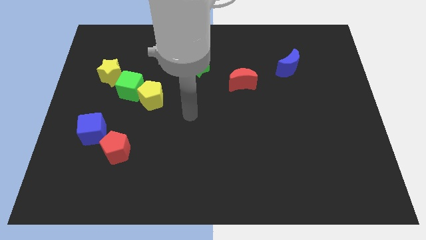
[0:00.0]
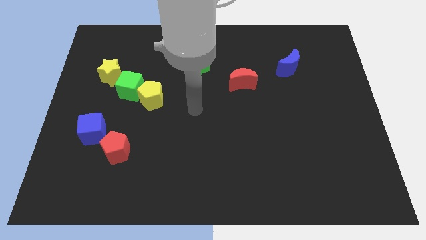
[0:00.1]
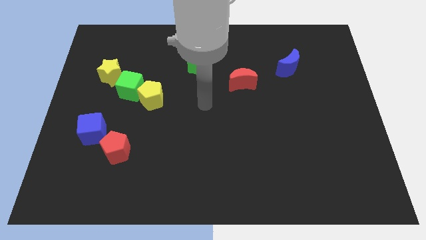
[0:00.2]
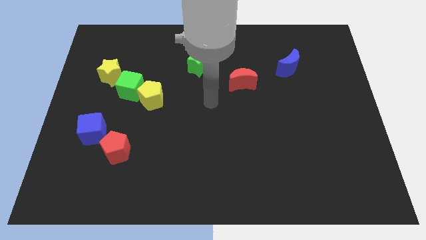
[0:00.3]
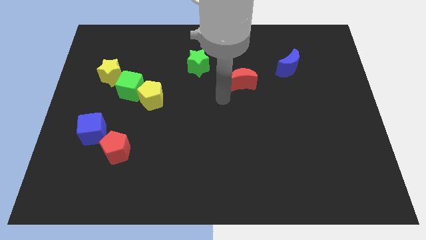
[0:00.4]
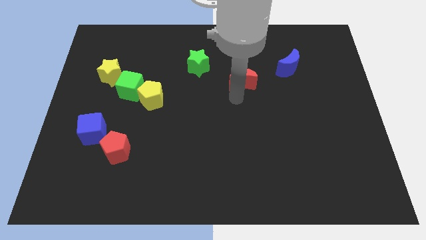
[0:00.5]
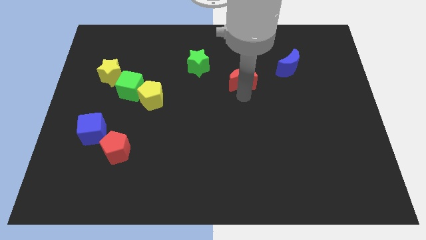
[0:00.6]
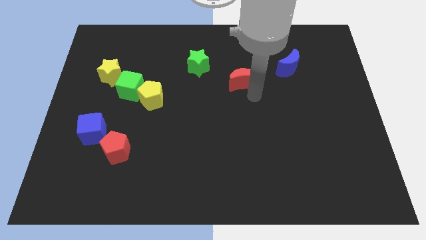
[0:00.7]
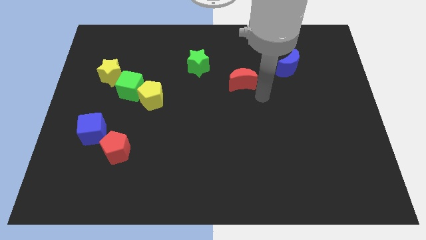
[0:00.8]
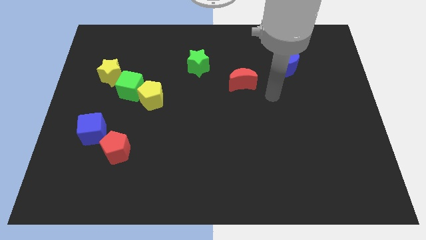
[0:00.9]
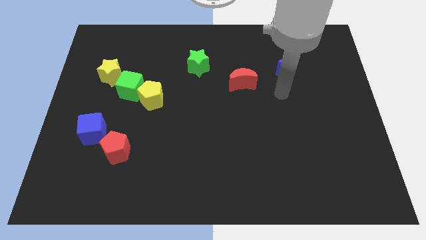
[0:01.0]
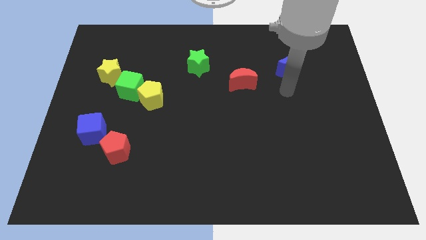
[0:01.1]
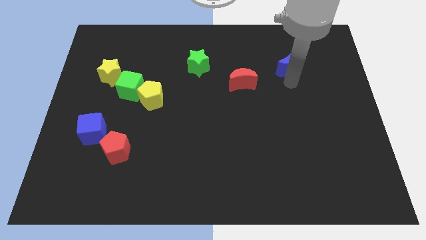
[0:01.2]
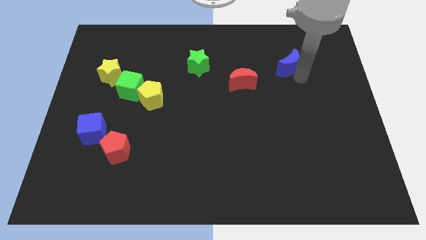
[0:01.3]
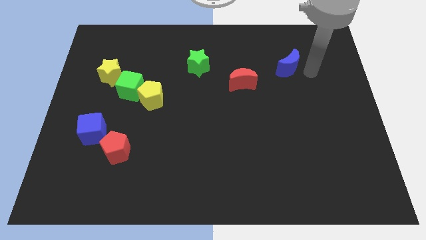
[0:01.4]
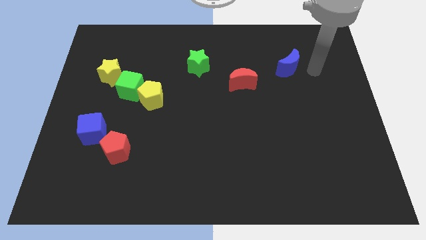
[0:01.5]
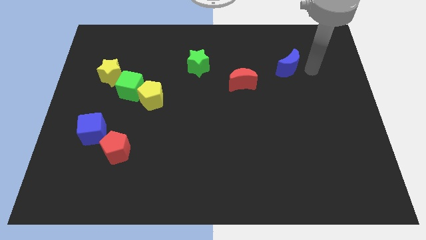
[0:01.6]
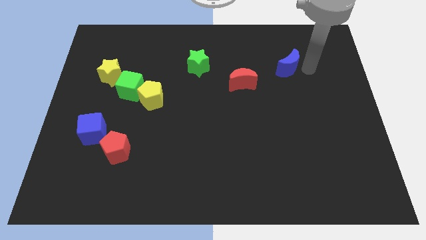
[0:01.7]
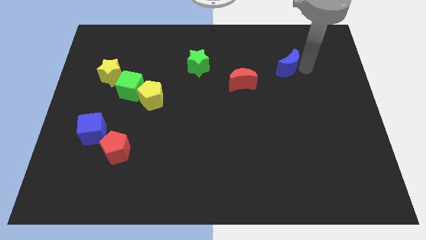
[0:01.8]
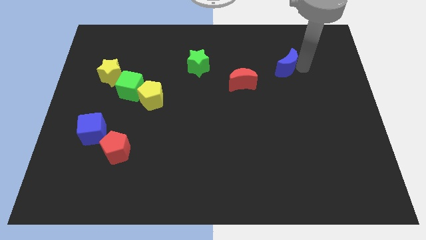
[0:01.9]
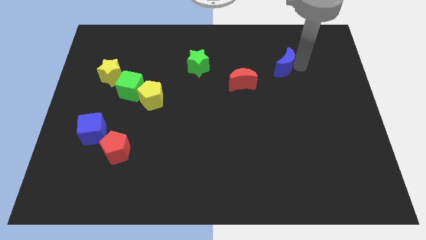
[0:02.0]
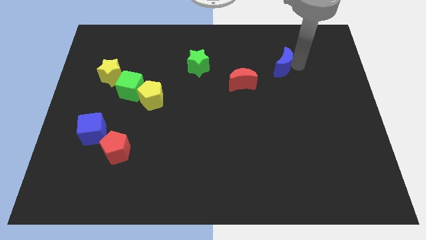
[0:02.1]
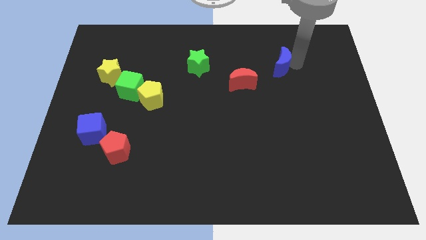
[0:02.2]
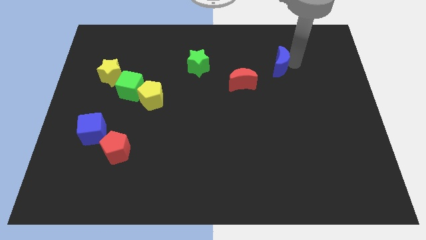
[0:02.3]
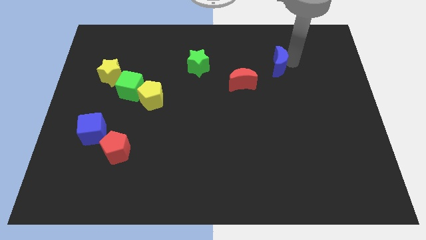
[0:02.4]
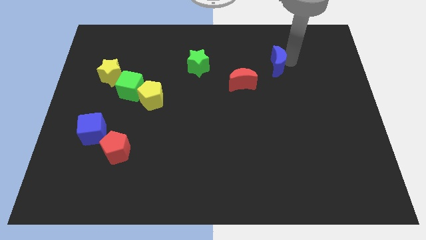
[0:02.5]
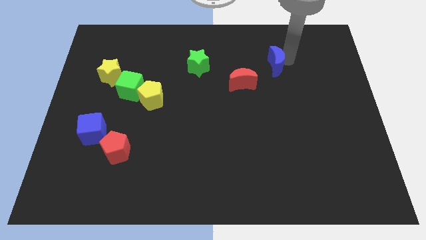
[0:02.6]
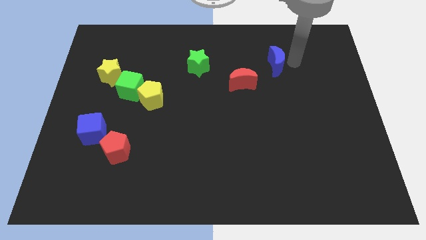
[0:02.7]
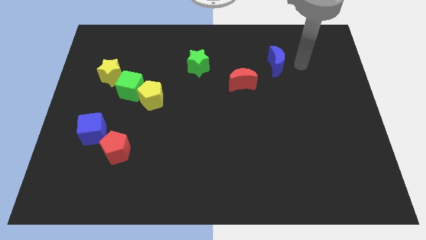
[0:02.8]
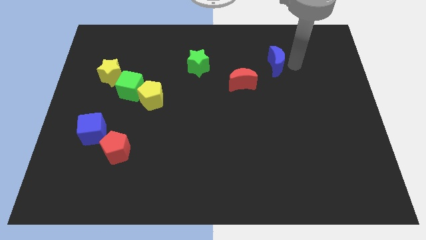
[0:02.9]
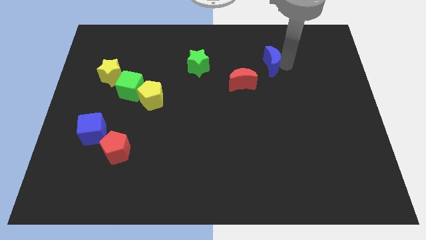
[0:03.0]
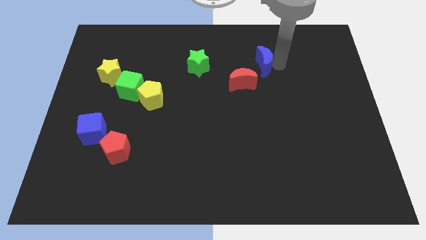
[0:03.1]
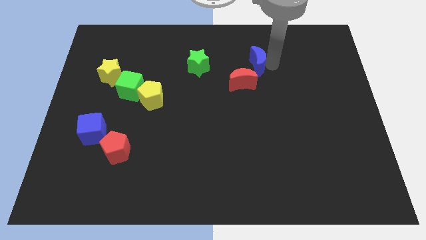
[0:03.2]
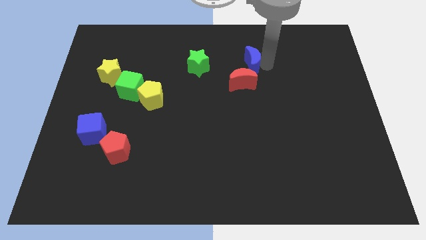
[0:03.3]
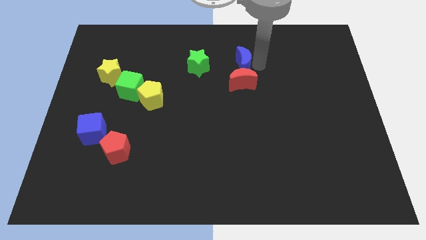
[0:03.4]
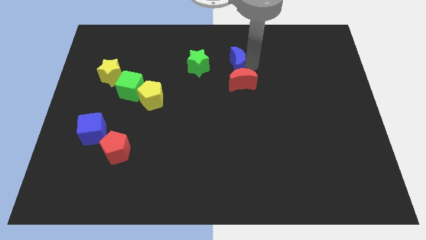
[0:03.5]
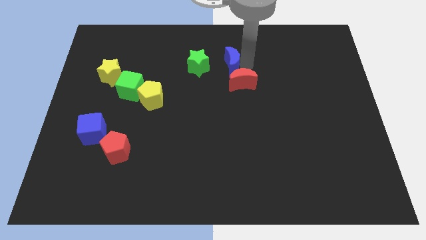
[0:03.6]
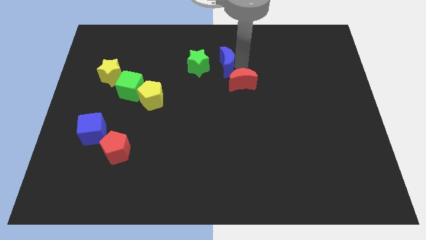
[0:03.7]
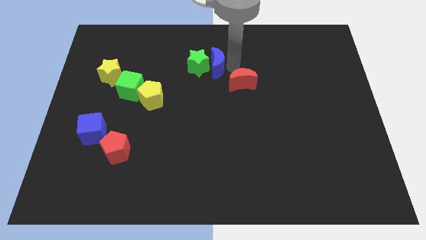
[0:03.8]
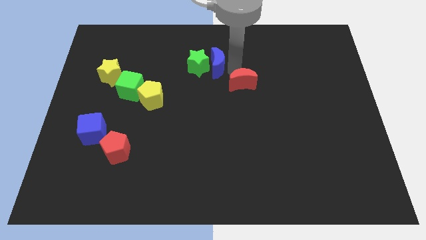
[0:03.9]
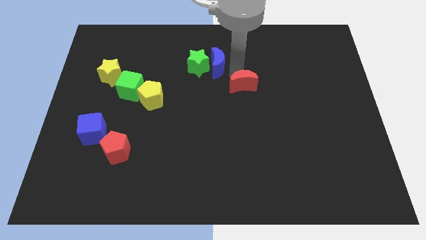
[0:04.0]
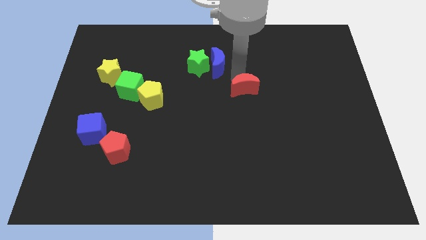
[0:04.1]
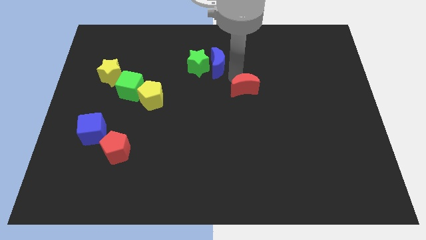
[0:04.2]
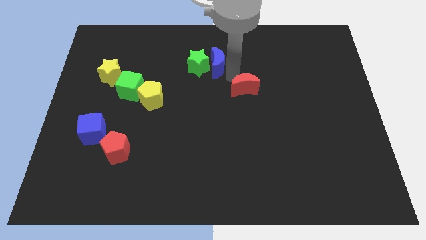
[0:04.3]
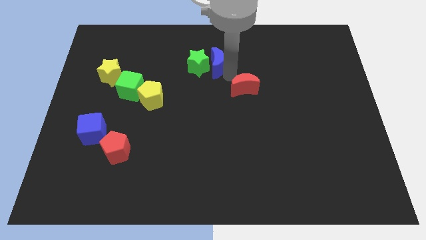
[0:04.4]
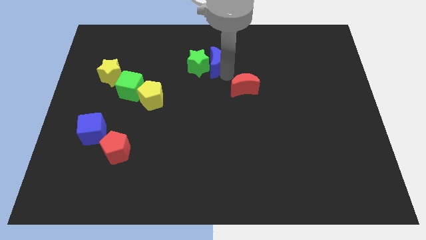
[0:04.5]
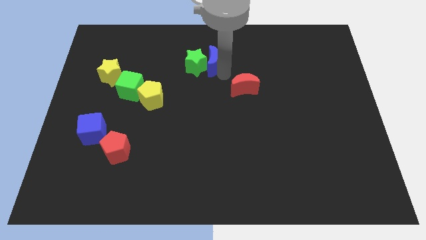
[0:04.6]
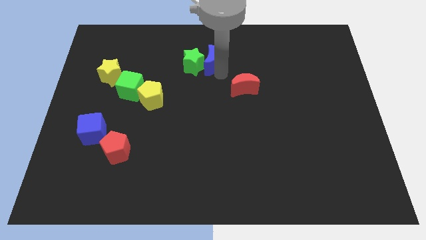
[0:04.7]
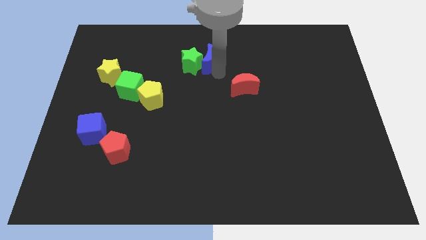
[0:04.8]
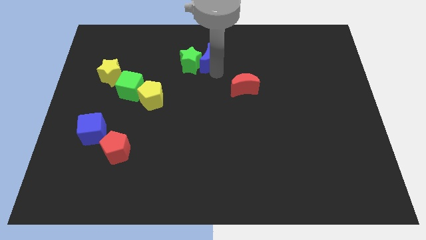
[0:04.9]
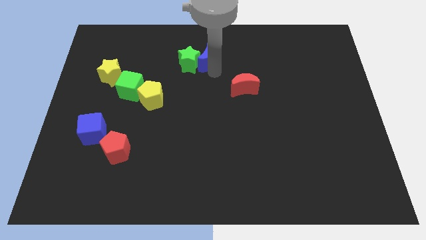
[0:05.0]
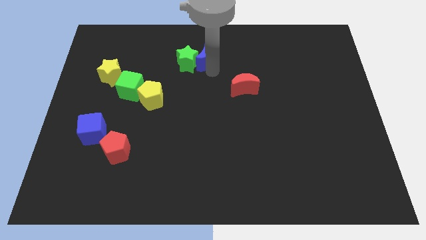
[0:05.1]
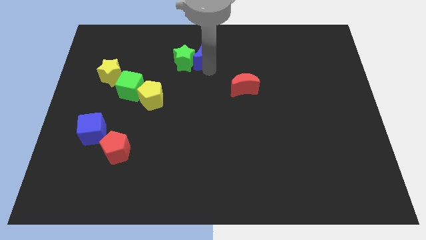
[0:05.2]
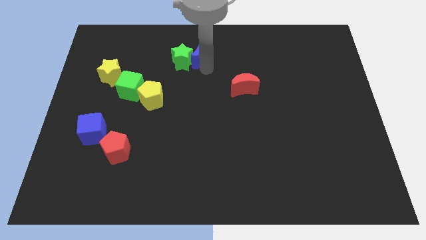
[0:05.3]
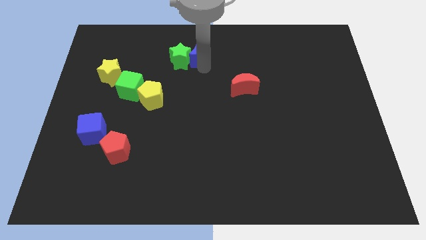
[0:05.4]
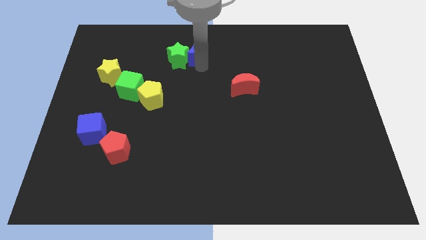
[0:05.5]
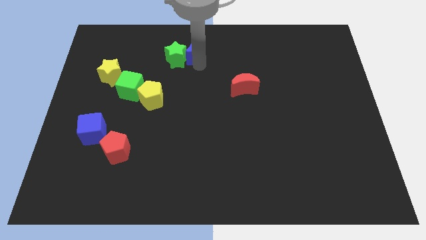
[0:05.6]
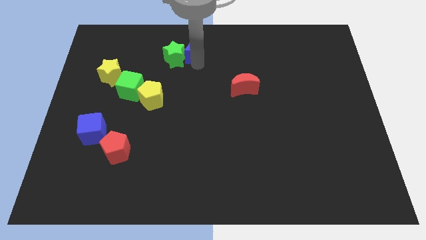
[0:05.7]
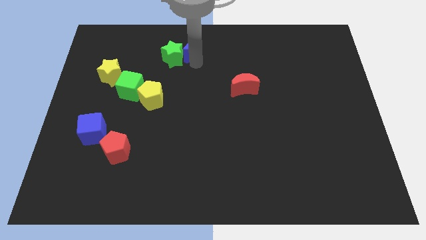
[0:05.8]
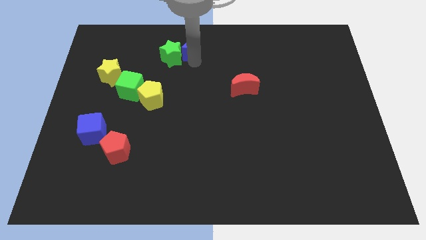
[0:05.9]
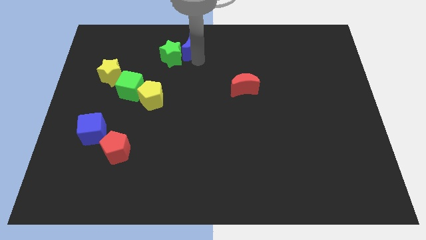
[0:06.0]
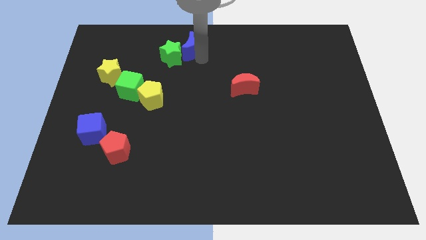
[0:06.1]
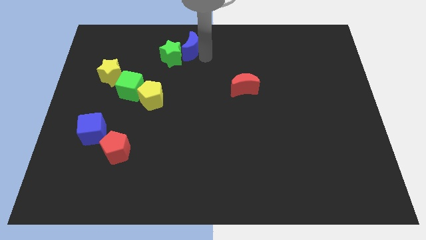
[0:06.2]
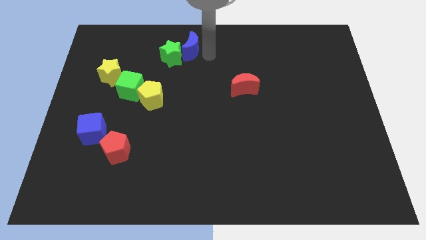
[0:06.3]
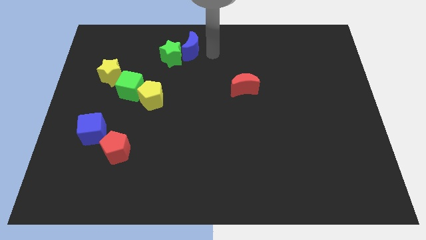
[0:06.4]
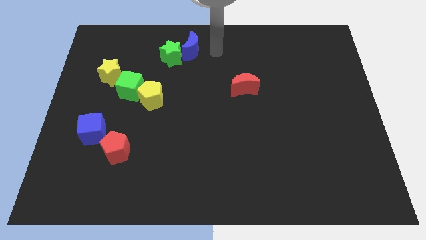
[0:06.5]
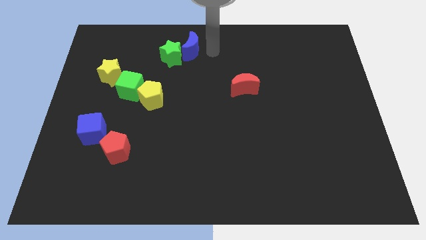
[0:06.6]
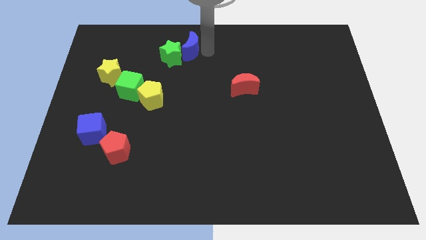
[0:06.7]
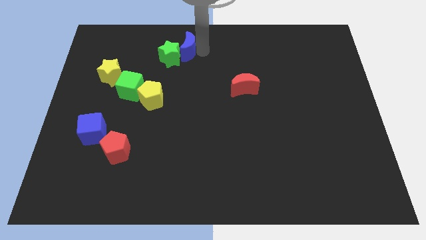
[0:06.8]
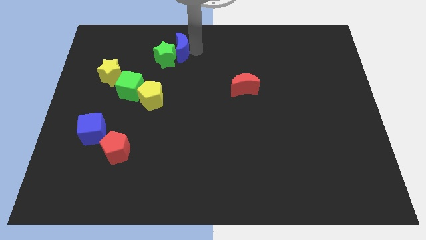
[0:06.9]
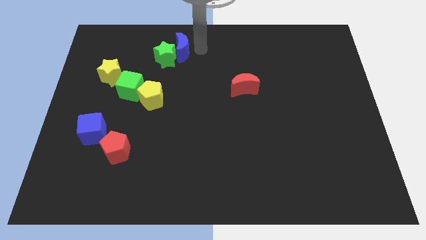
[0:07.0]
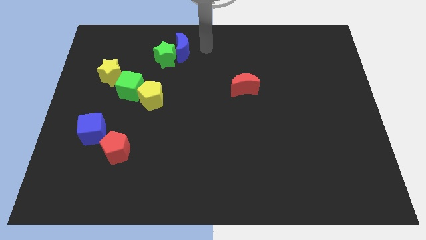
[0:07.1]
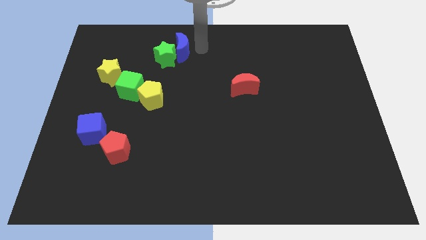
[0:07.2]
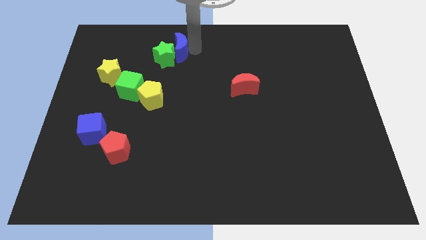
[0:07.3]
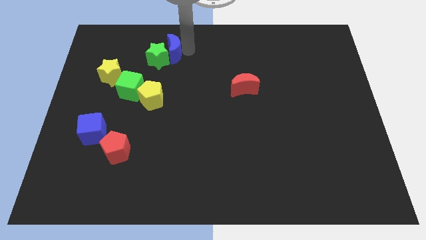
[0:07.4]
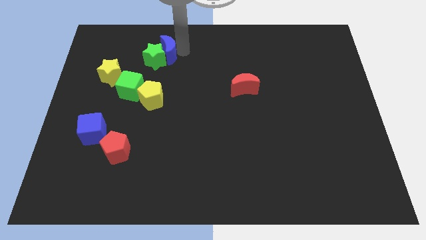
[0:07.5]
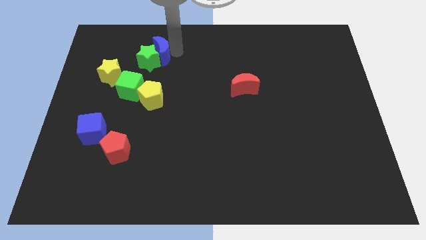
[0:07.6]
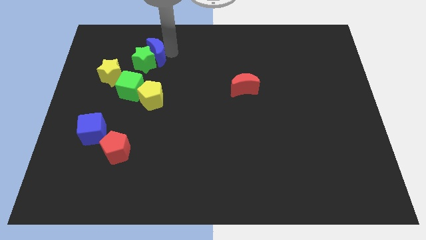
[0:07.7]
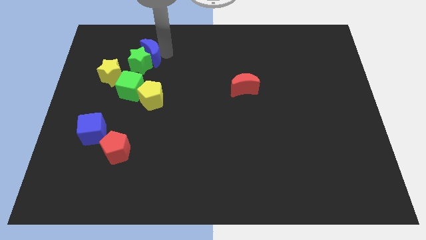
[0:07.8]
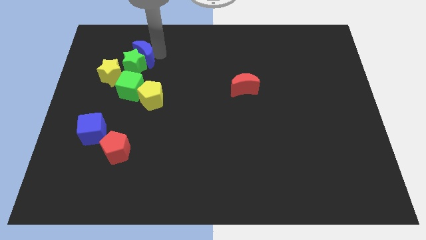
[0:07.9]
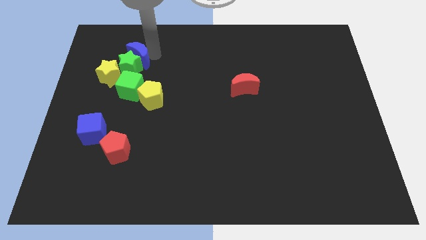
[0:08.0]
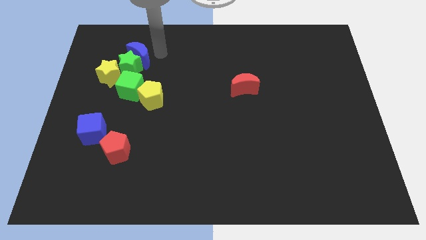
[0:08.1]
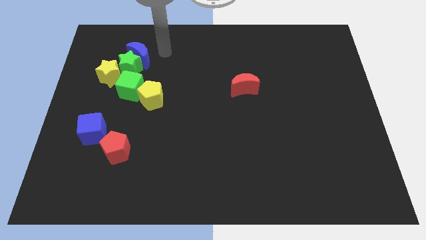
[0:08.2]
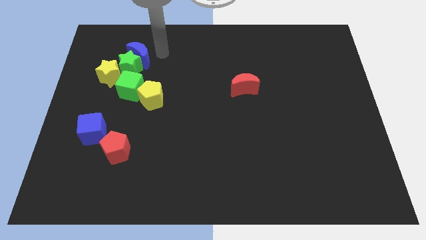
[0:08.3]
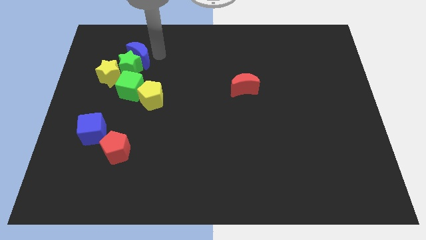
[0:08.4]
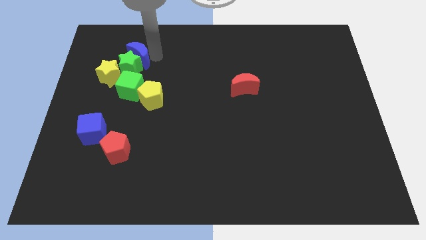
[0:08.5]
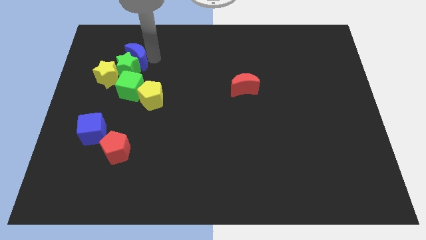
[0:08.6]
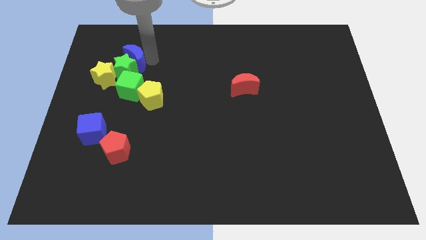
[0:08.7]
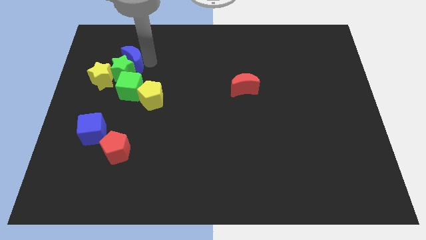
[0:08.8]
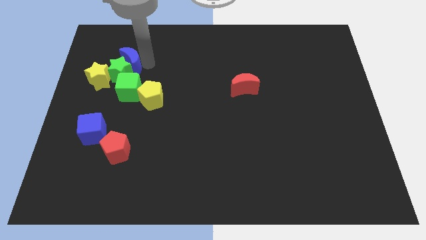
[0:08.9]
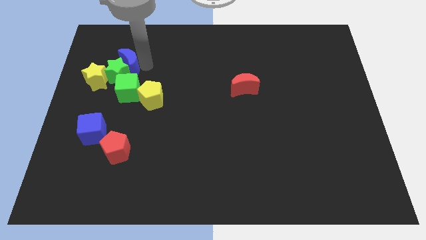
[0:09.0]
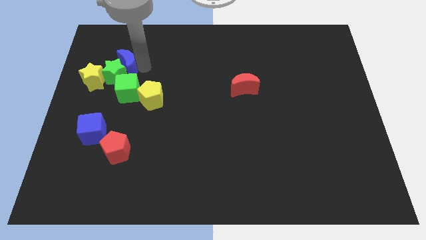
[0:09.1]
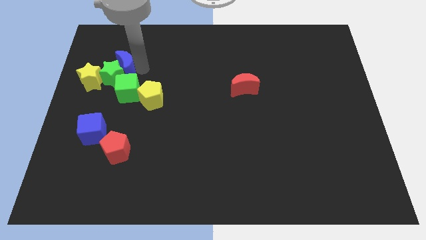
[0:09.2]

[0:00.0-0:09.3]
put the blue moon diagonally up and to the left of the green cube
